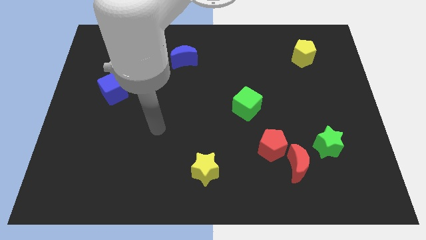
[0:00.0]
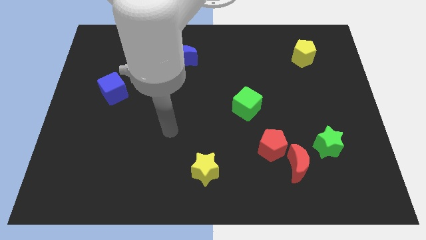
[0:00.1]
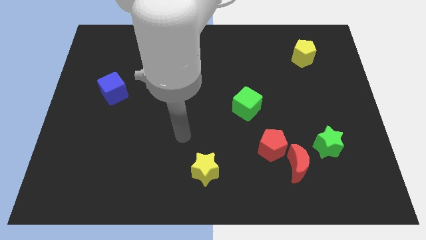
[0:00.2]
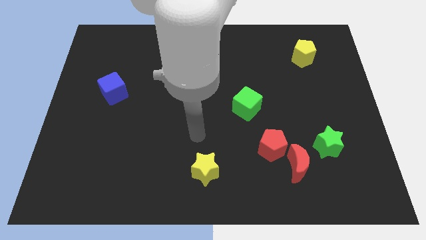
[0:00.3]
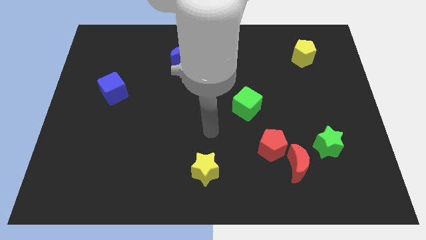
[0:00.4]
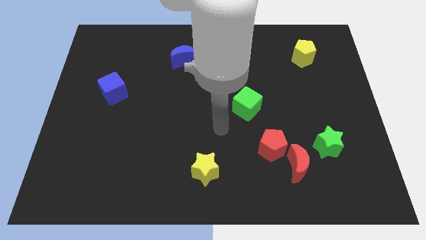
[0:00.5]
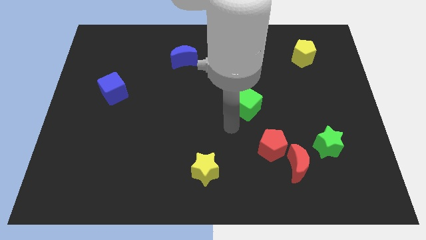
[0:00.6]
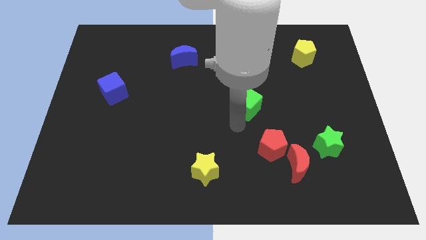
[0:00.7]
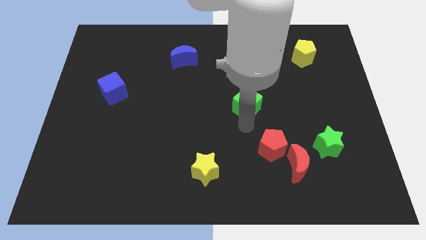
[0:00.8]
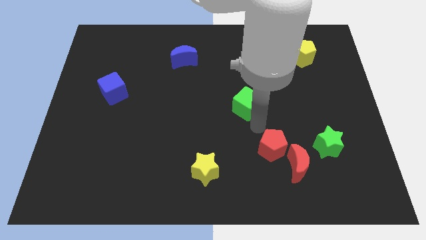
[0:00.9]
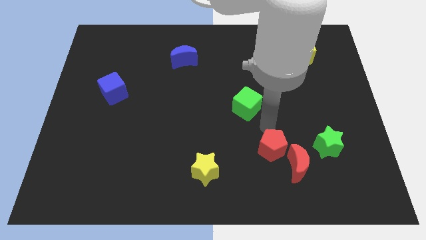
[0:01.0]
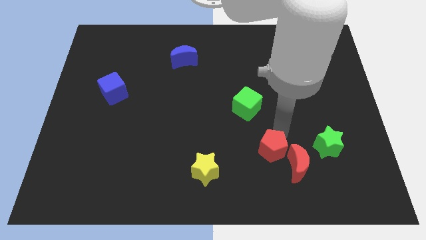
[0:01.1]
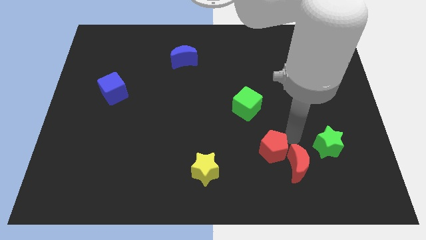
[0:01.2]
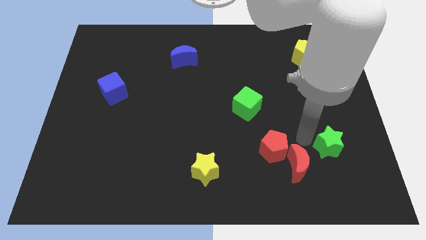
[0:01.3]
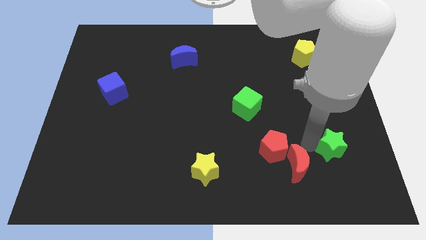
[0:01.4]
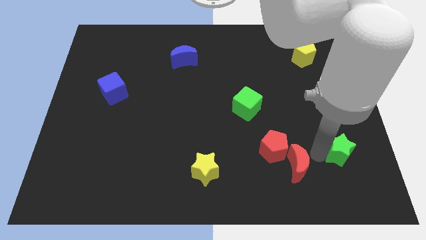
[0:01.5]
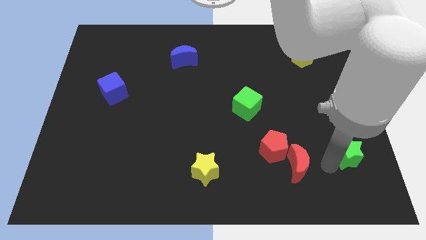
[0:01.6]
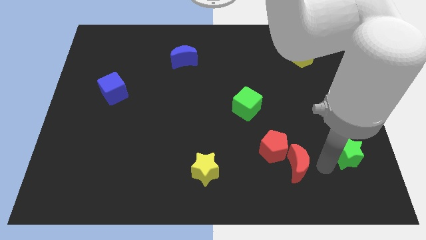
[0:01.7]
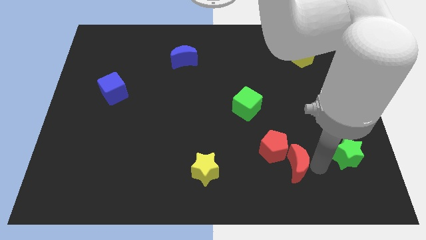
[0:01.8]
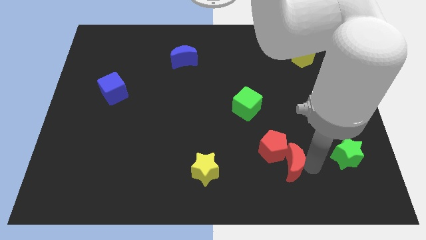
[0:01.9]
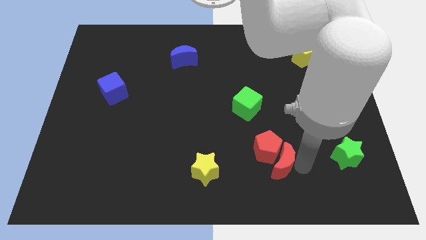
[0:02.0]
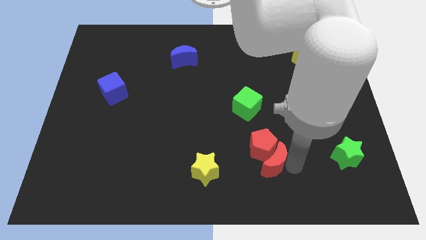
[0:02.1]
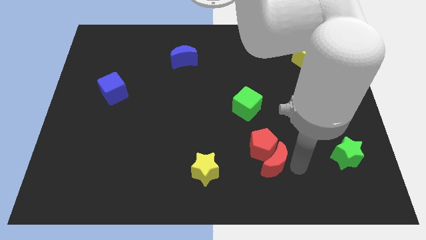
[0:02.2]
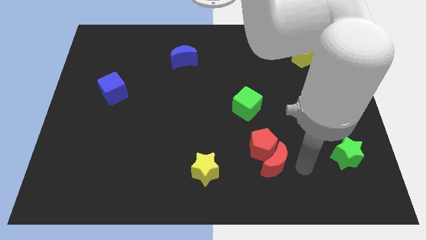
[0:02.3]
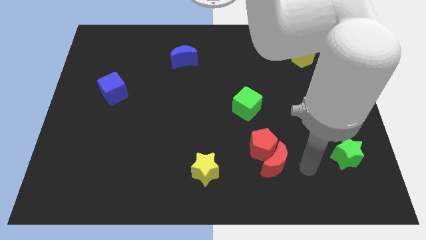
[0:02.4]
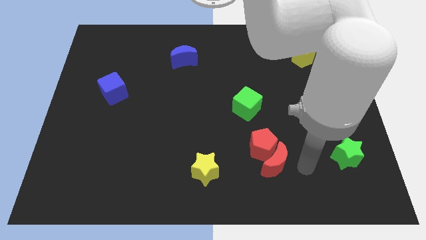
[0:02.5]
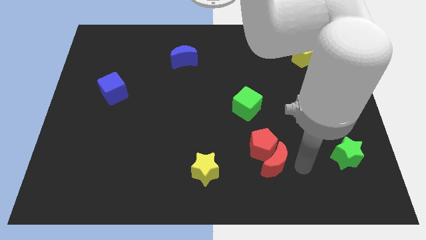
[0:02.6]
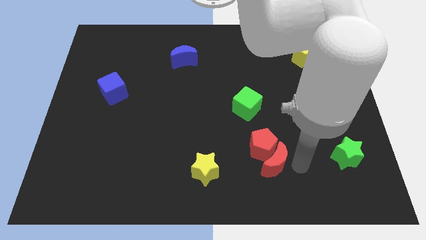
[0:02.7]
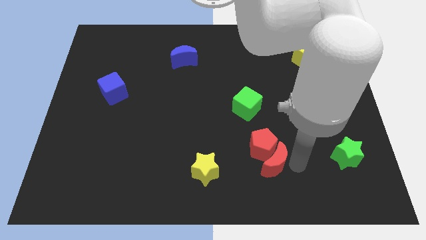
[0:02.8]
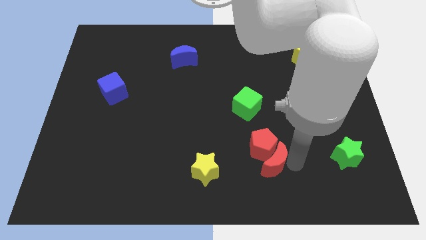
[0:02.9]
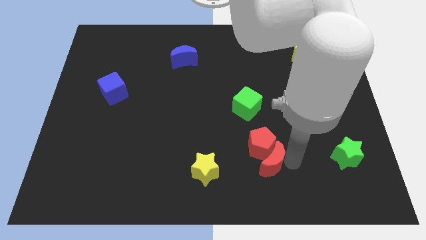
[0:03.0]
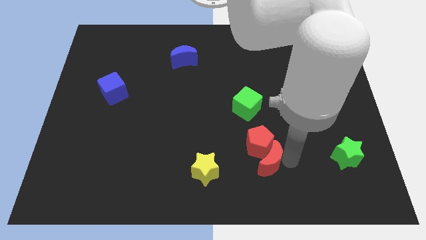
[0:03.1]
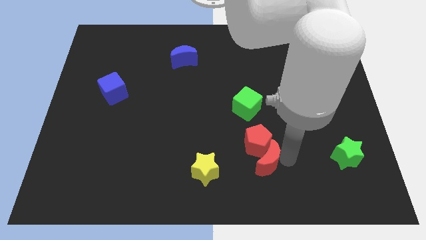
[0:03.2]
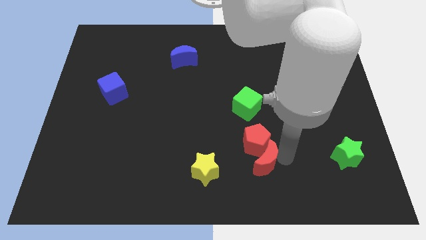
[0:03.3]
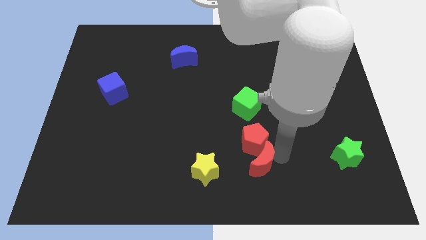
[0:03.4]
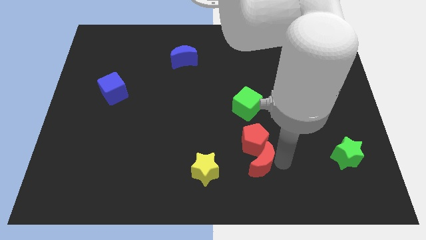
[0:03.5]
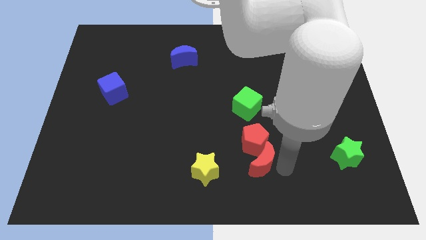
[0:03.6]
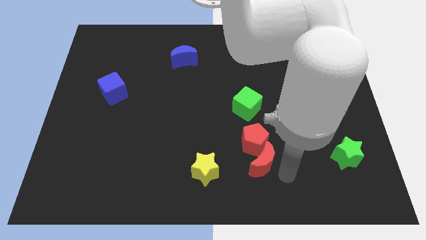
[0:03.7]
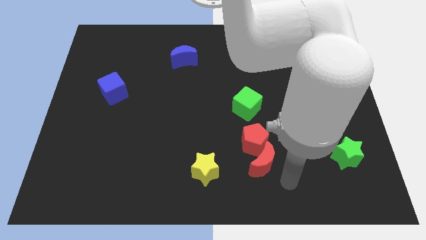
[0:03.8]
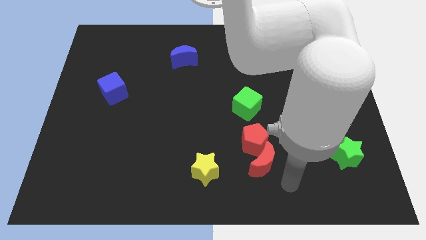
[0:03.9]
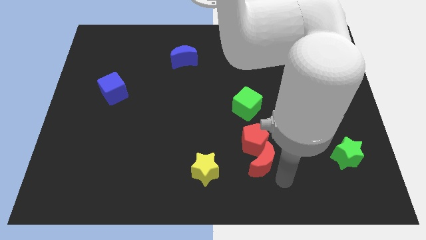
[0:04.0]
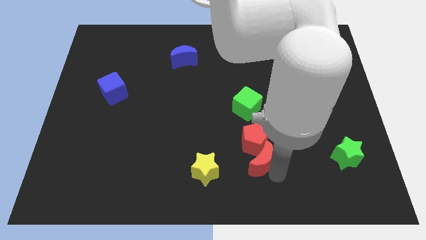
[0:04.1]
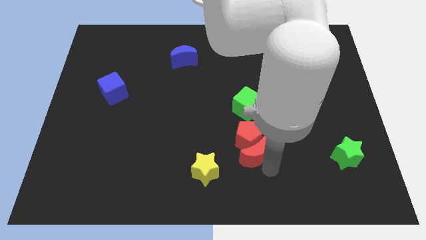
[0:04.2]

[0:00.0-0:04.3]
move the red moon upwards and then left a little bit

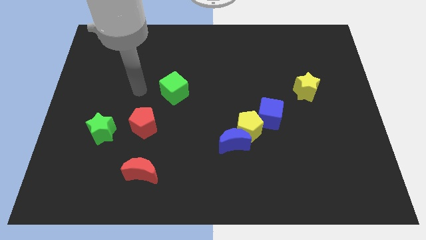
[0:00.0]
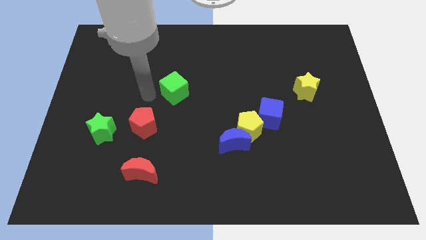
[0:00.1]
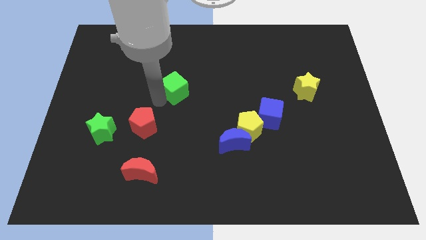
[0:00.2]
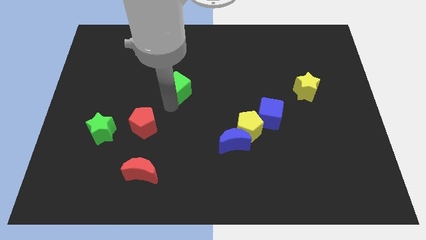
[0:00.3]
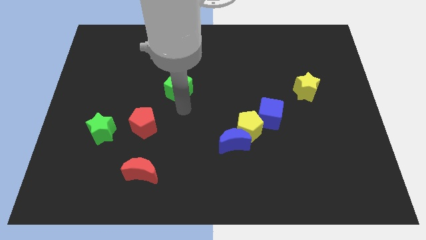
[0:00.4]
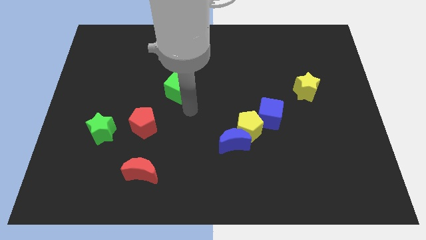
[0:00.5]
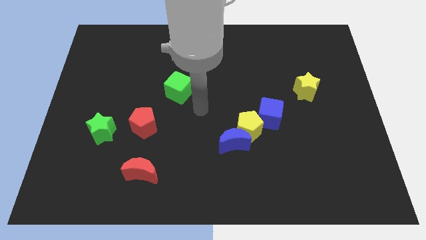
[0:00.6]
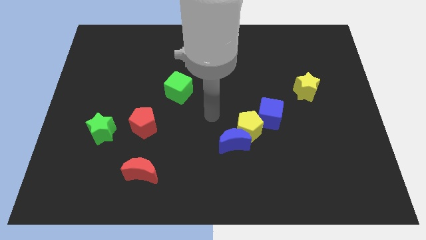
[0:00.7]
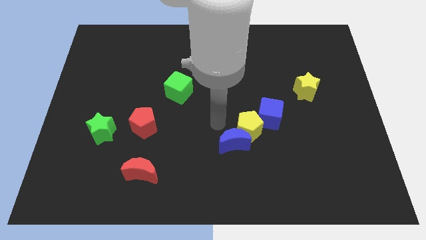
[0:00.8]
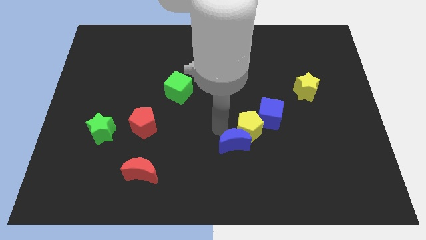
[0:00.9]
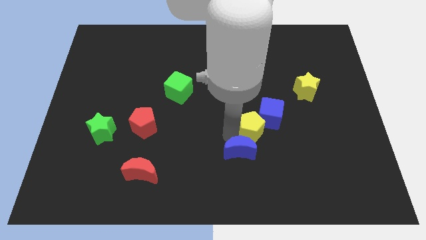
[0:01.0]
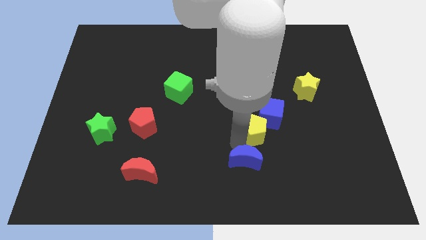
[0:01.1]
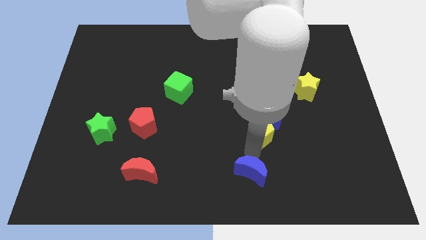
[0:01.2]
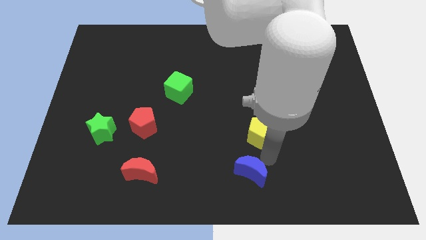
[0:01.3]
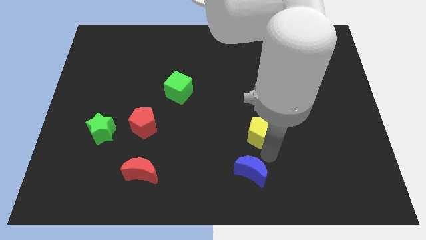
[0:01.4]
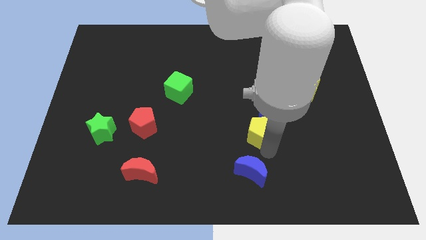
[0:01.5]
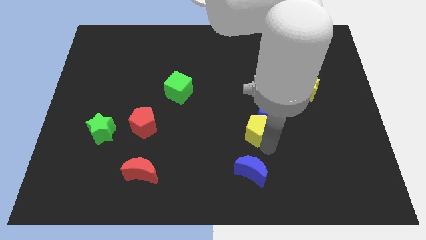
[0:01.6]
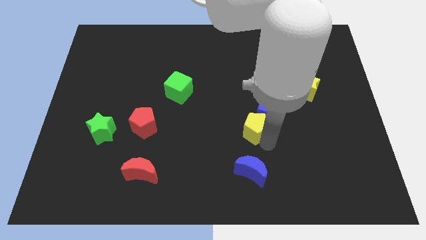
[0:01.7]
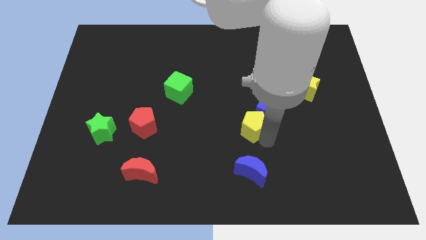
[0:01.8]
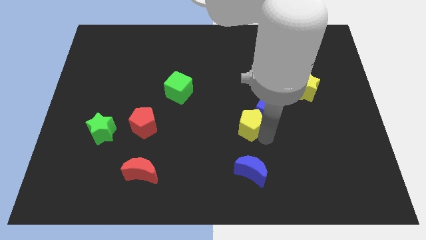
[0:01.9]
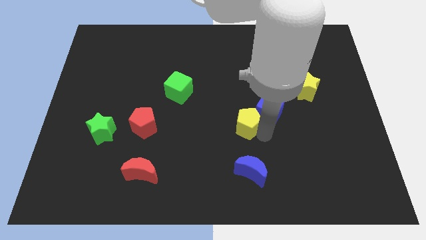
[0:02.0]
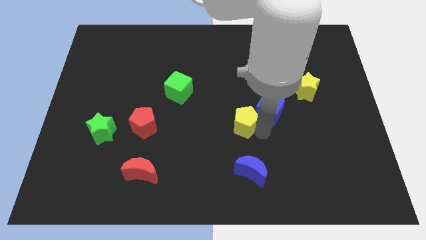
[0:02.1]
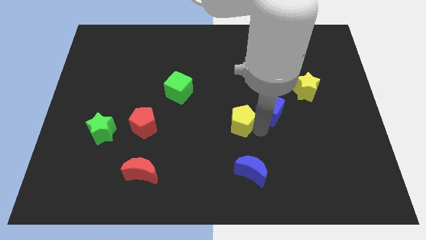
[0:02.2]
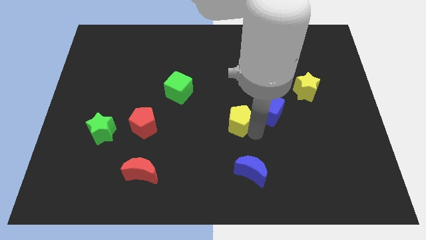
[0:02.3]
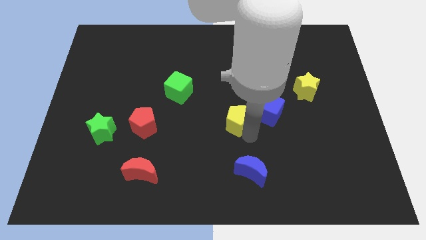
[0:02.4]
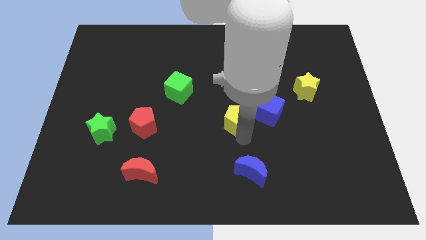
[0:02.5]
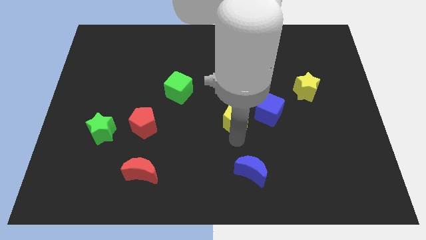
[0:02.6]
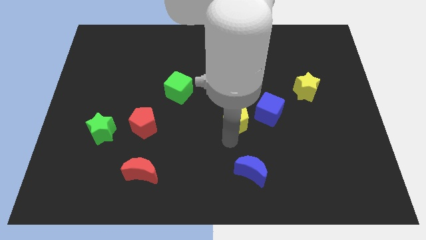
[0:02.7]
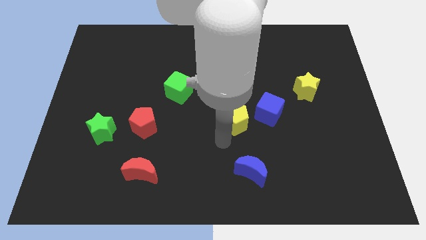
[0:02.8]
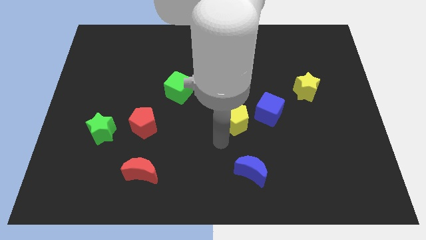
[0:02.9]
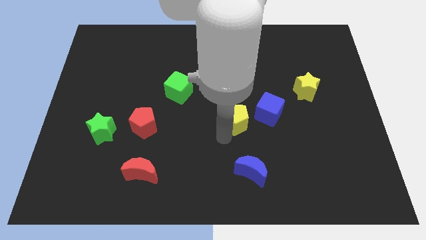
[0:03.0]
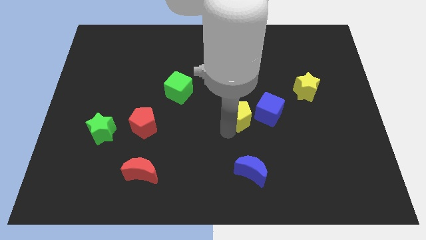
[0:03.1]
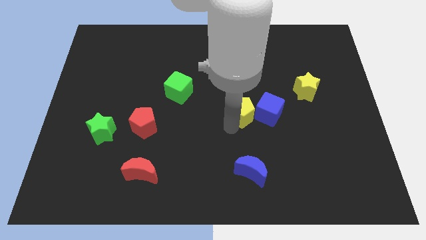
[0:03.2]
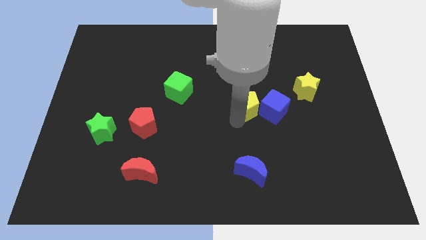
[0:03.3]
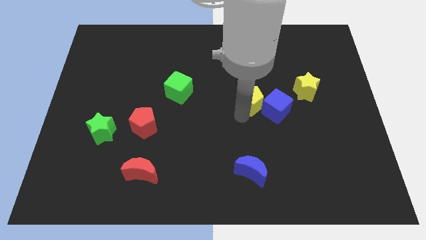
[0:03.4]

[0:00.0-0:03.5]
push the yellow pentagon a bit up

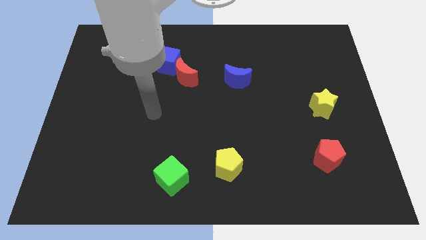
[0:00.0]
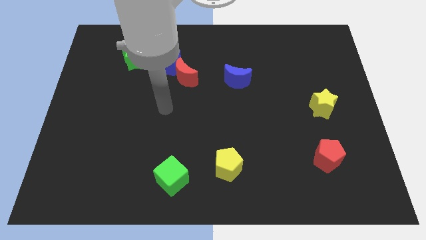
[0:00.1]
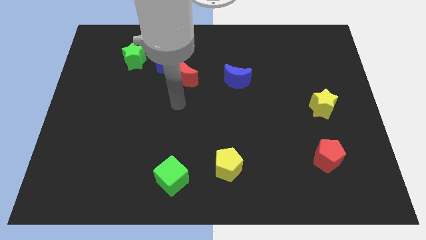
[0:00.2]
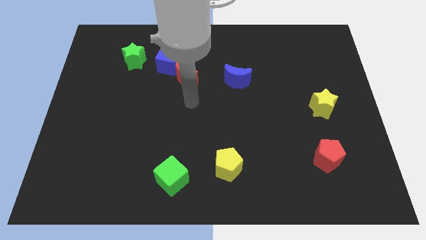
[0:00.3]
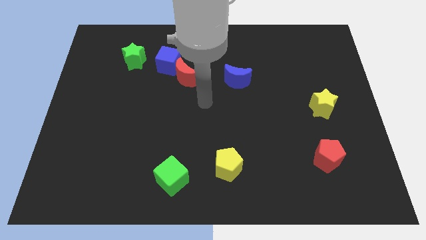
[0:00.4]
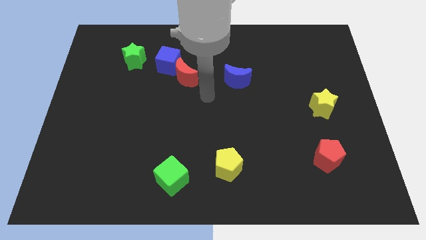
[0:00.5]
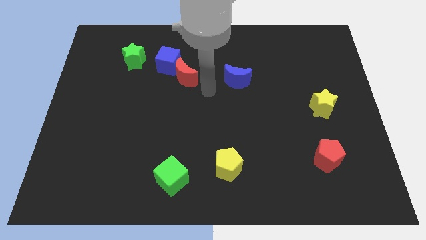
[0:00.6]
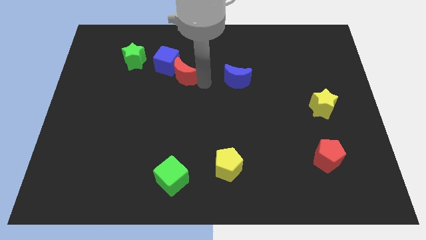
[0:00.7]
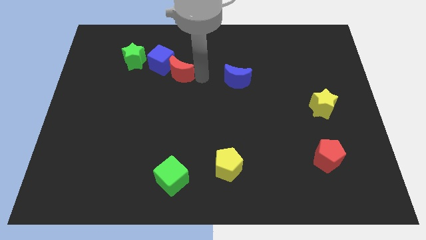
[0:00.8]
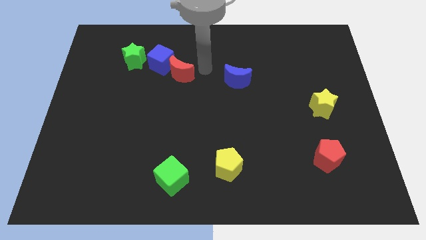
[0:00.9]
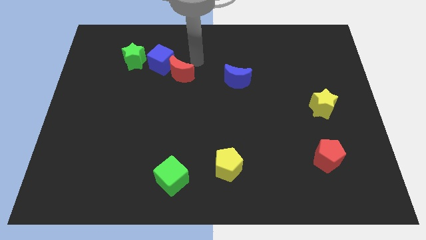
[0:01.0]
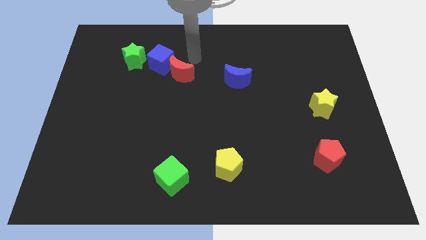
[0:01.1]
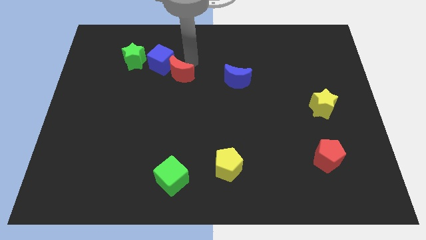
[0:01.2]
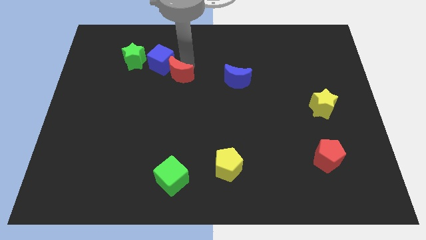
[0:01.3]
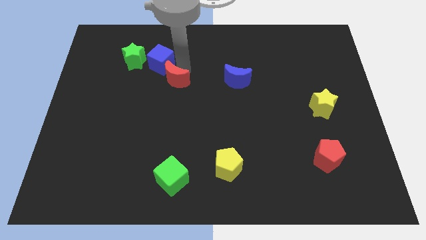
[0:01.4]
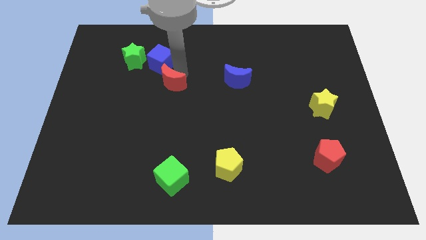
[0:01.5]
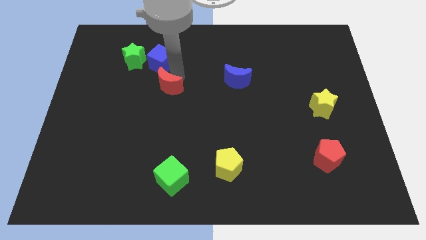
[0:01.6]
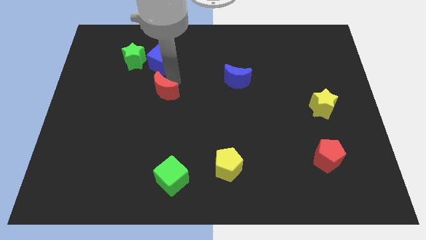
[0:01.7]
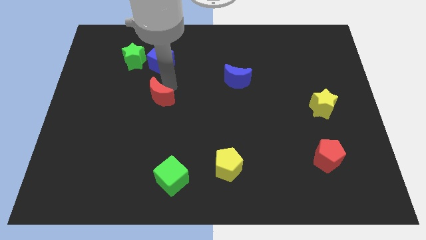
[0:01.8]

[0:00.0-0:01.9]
move the red moon somewhat down and then to the left
